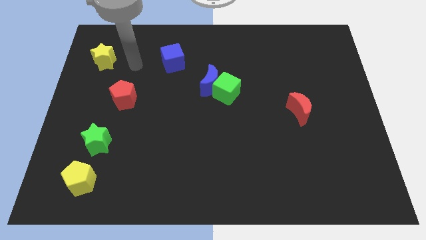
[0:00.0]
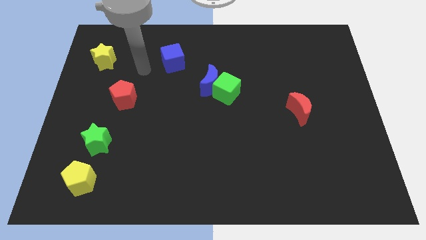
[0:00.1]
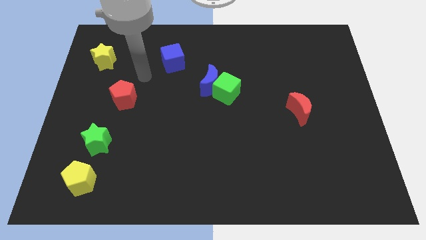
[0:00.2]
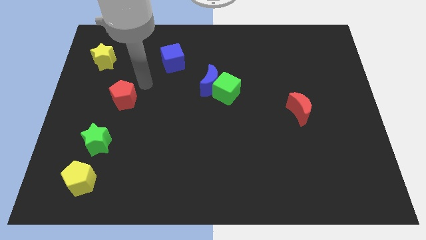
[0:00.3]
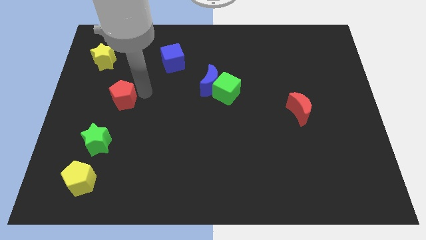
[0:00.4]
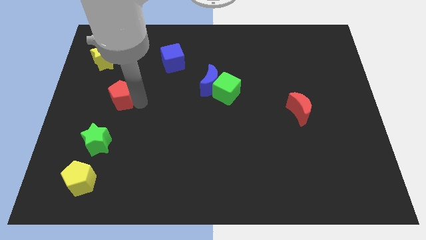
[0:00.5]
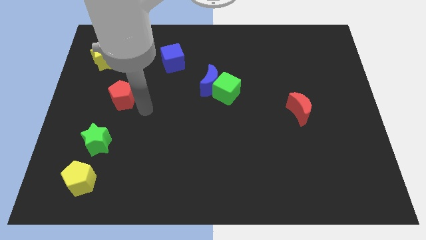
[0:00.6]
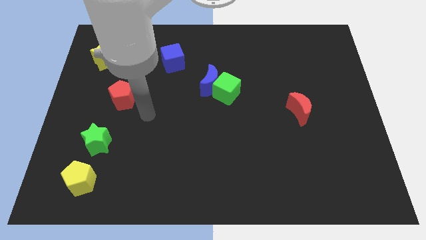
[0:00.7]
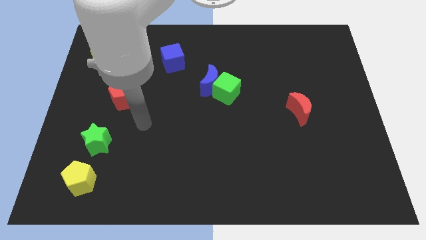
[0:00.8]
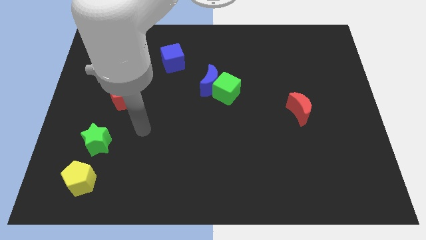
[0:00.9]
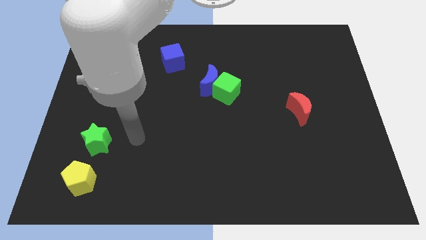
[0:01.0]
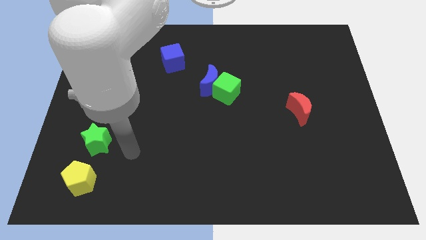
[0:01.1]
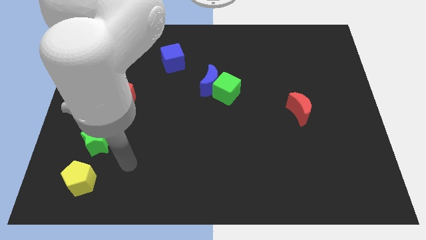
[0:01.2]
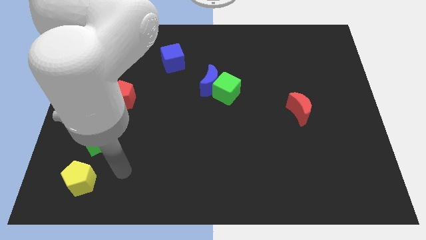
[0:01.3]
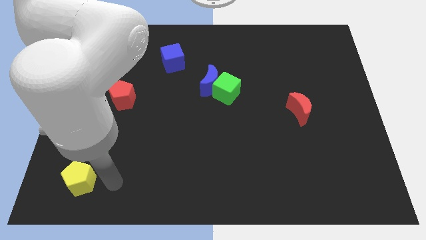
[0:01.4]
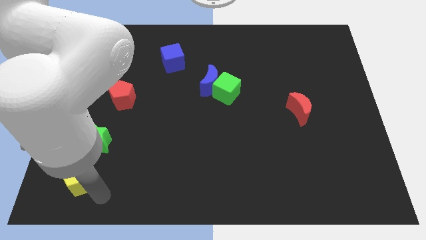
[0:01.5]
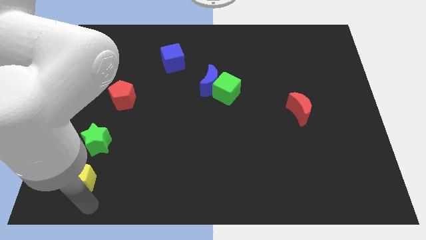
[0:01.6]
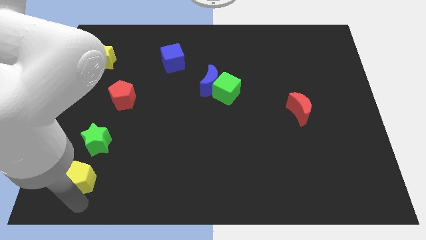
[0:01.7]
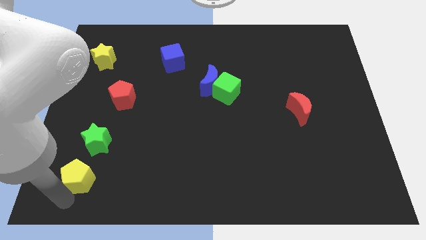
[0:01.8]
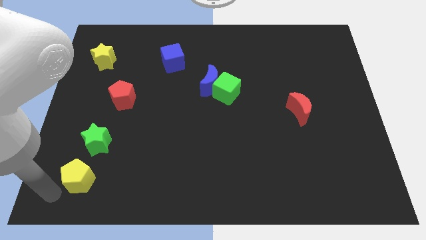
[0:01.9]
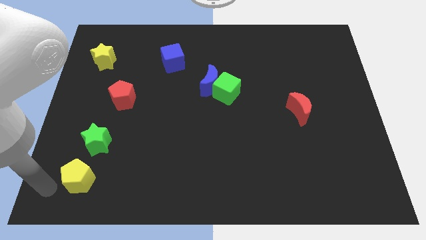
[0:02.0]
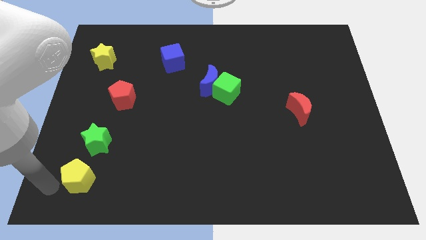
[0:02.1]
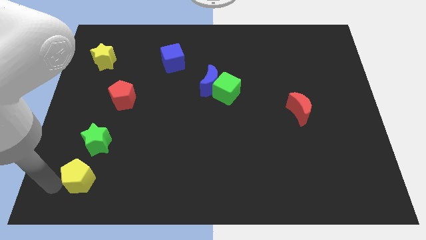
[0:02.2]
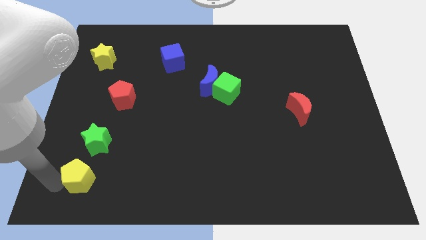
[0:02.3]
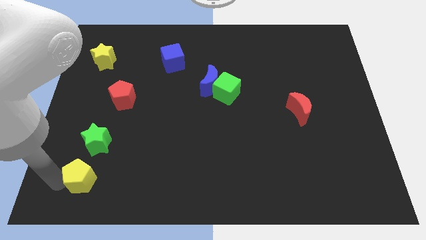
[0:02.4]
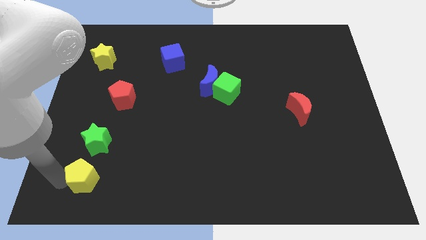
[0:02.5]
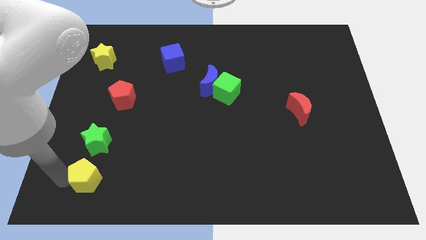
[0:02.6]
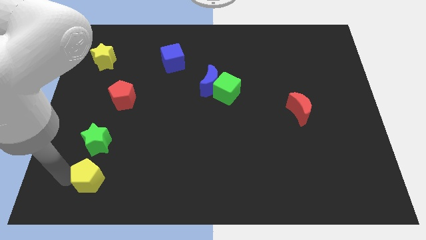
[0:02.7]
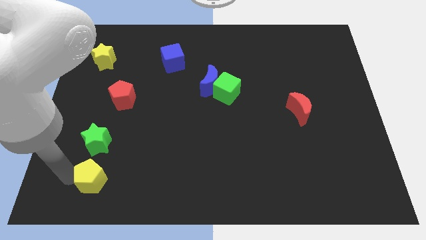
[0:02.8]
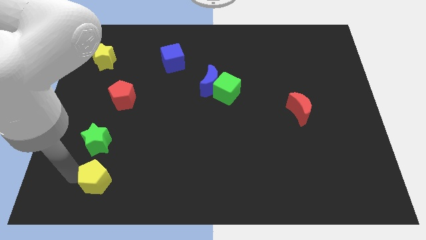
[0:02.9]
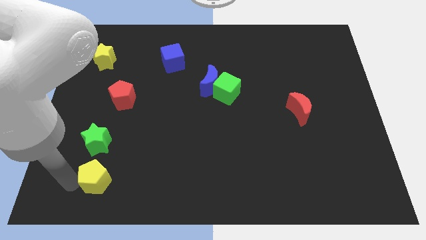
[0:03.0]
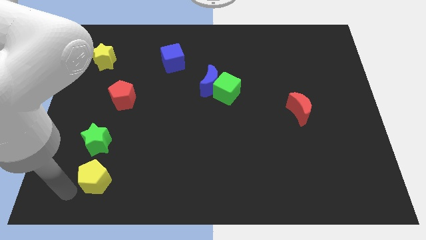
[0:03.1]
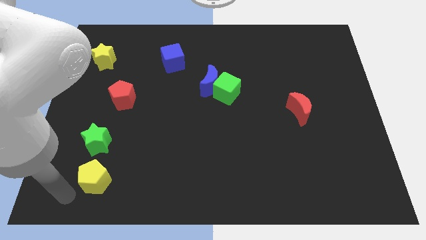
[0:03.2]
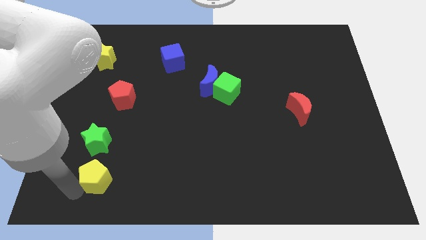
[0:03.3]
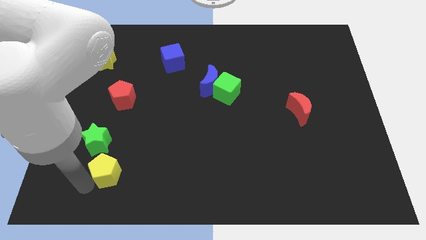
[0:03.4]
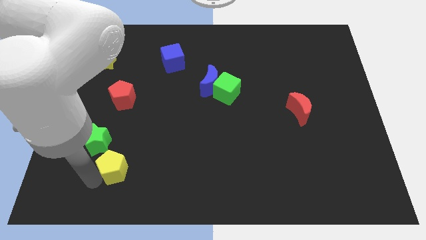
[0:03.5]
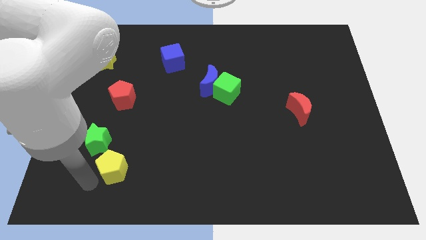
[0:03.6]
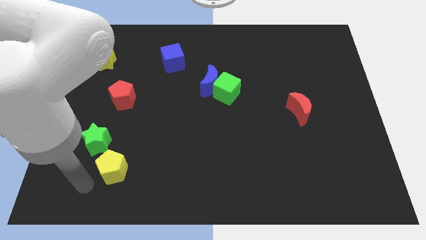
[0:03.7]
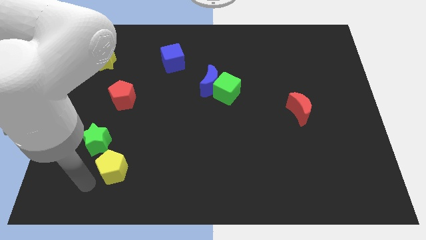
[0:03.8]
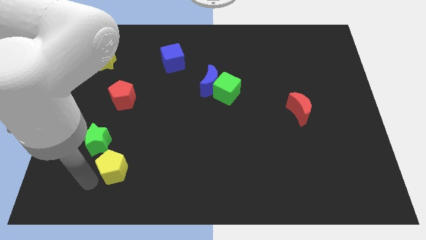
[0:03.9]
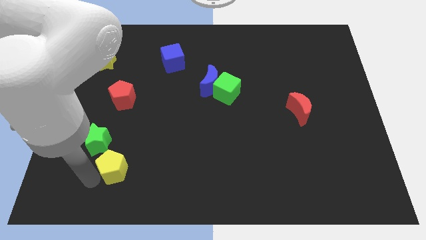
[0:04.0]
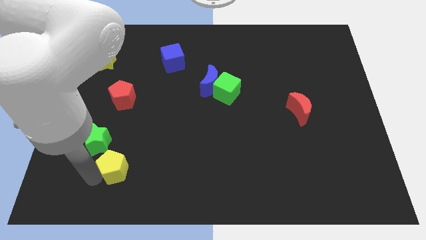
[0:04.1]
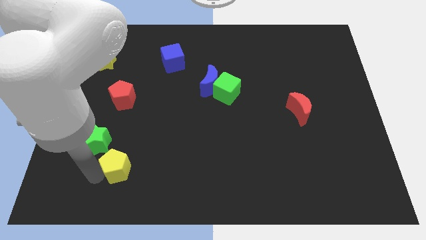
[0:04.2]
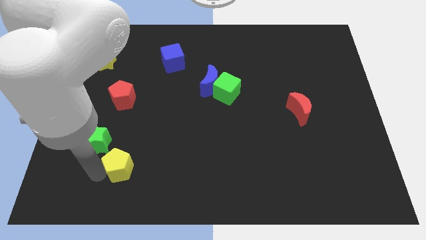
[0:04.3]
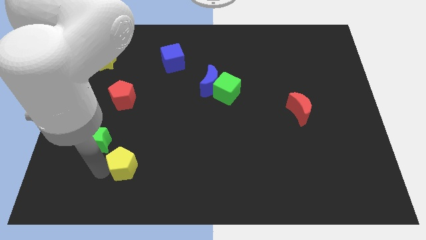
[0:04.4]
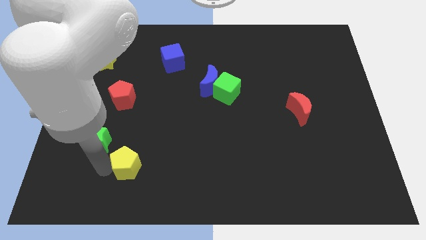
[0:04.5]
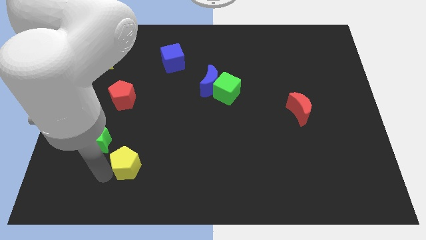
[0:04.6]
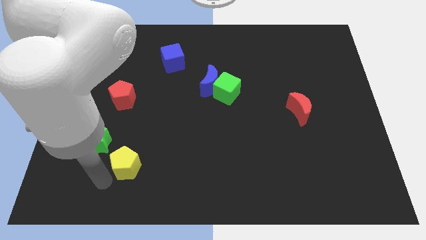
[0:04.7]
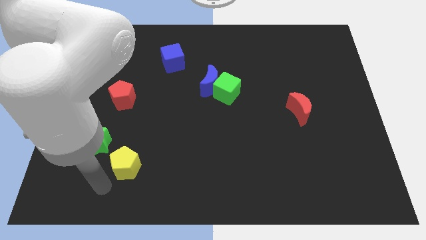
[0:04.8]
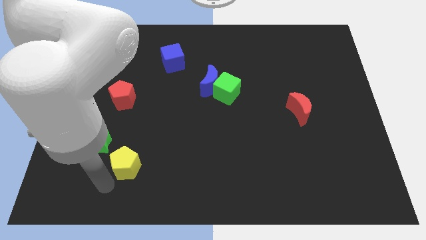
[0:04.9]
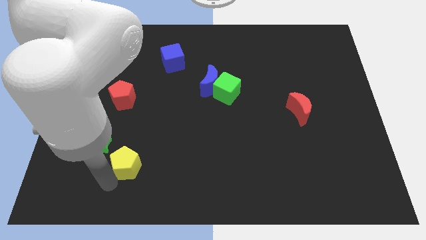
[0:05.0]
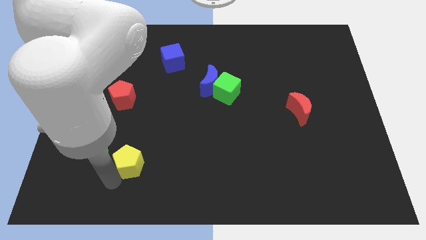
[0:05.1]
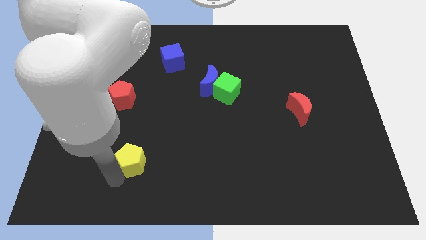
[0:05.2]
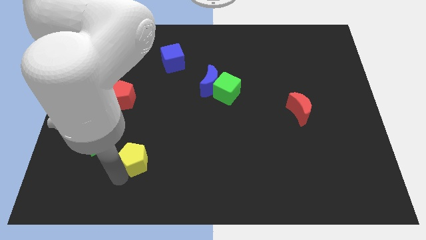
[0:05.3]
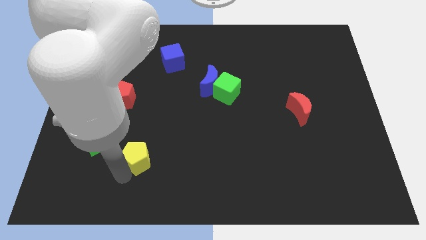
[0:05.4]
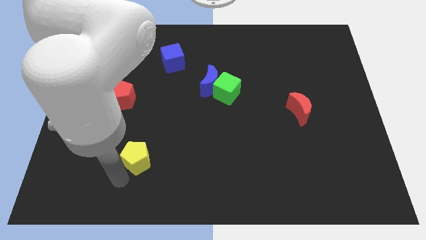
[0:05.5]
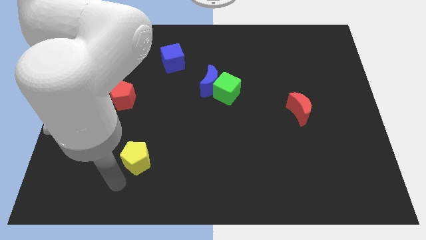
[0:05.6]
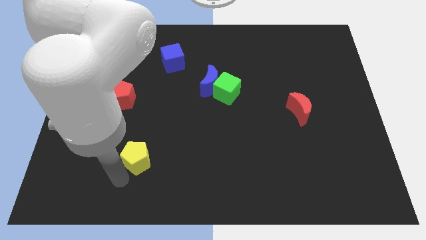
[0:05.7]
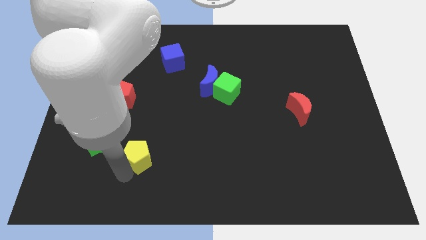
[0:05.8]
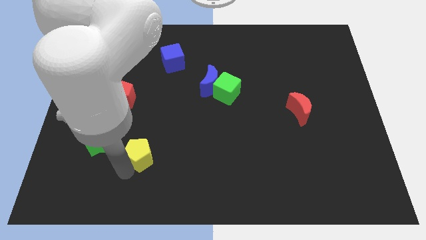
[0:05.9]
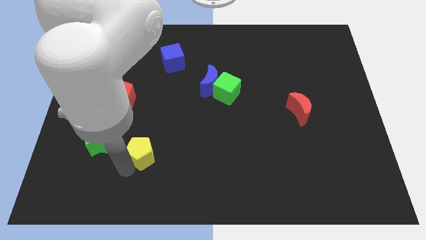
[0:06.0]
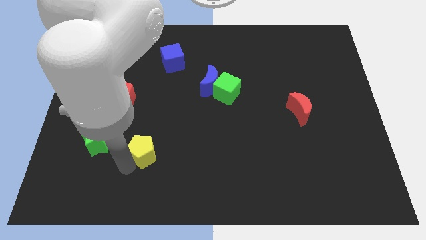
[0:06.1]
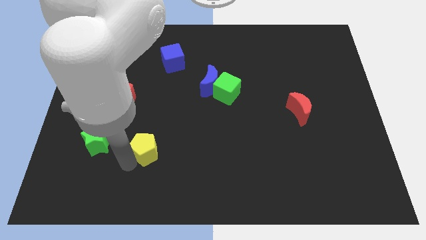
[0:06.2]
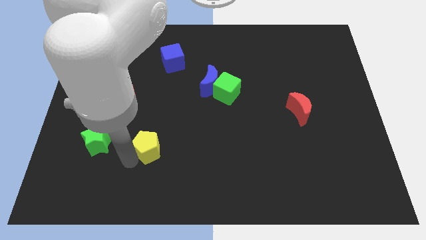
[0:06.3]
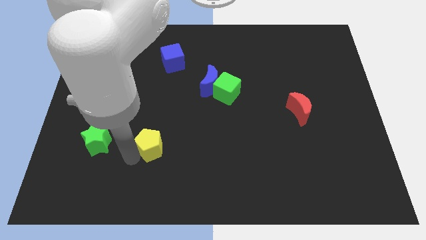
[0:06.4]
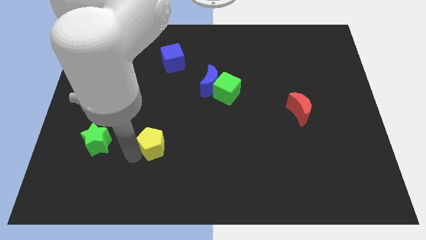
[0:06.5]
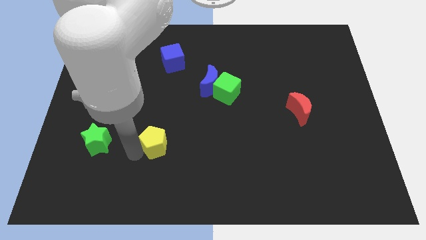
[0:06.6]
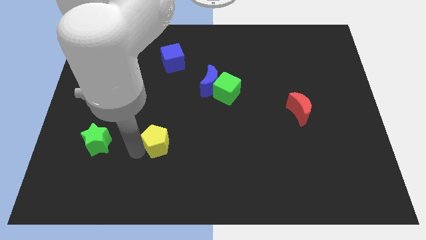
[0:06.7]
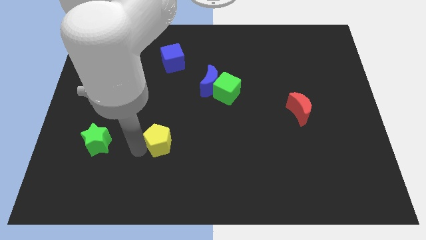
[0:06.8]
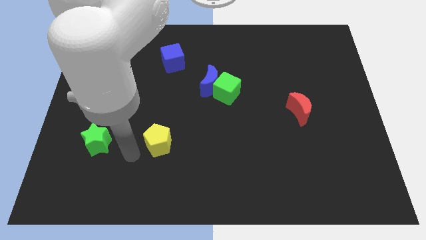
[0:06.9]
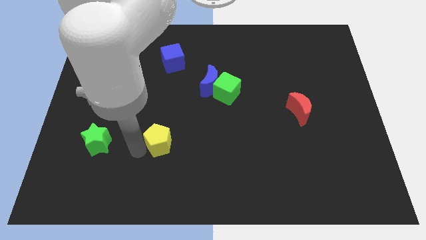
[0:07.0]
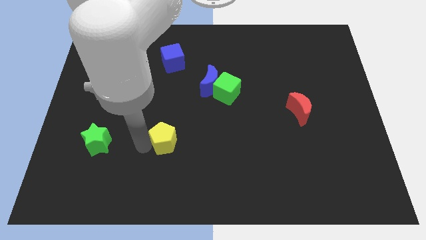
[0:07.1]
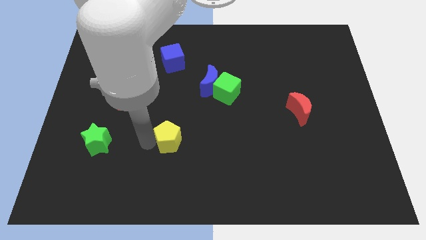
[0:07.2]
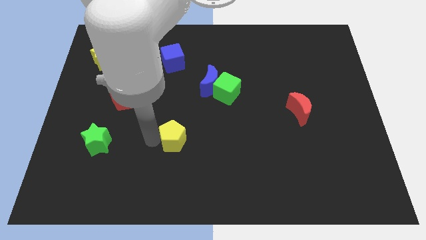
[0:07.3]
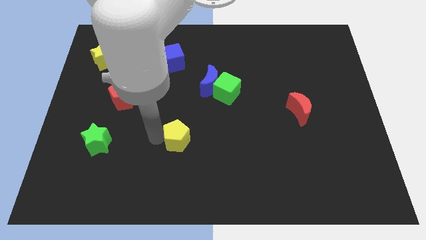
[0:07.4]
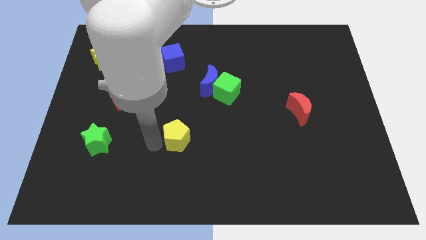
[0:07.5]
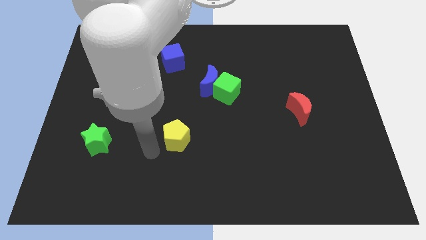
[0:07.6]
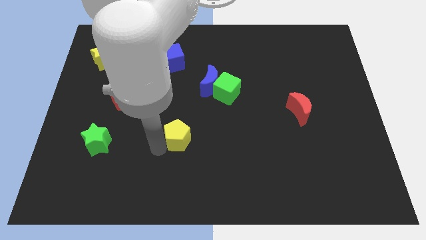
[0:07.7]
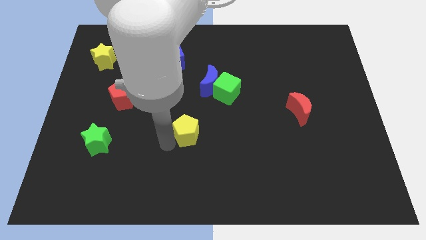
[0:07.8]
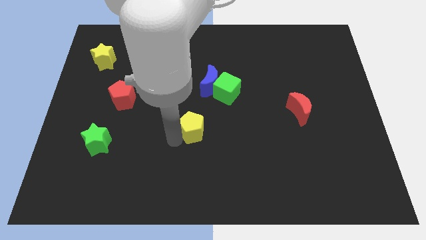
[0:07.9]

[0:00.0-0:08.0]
slide the yellow pentagon to the bottom of the blue moon
